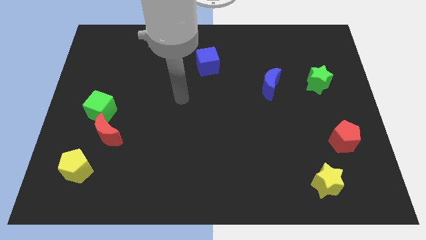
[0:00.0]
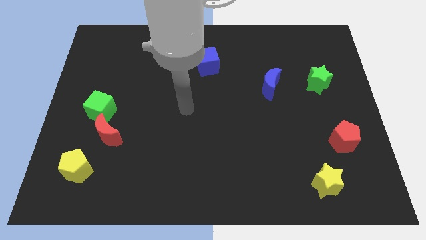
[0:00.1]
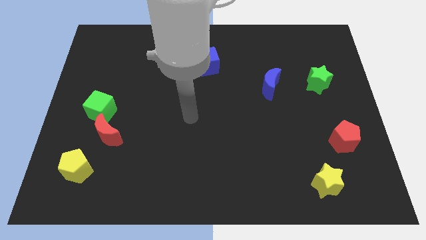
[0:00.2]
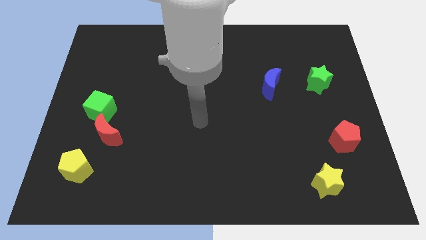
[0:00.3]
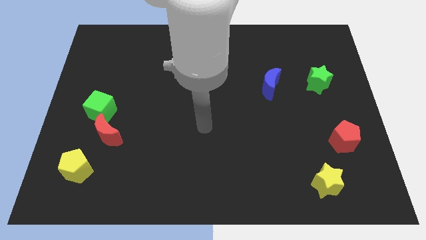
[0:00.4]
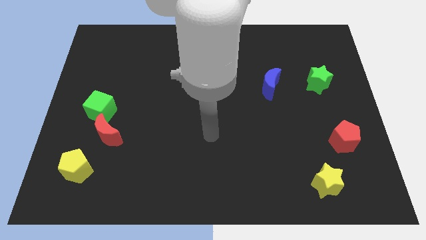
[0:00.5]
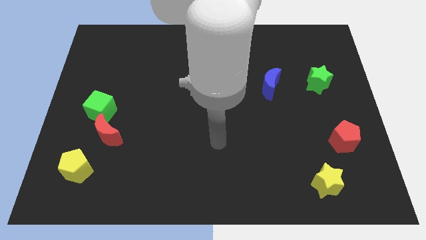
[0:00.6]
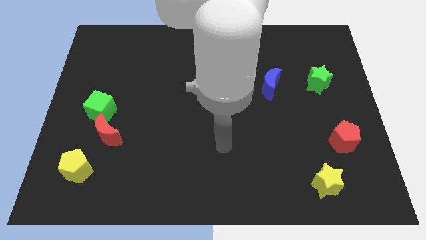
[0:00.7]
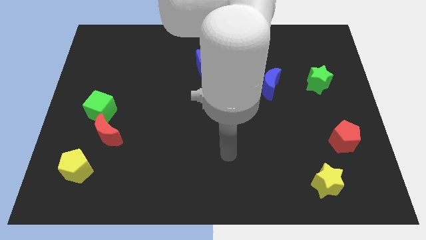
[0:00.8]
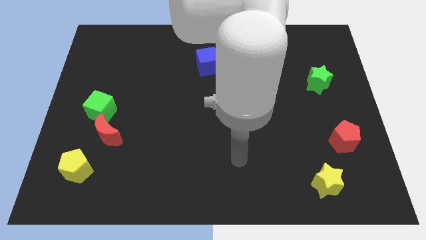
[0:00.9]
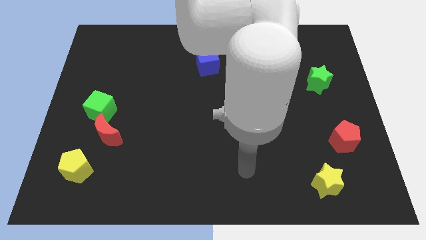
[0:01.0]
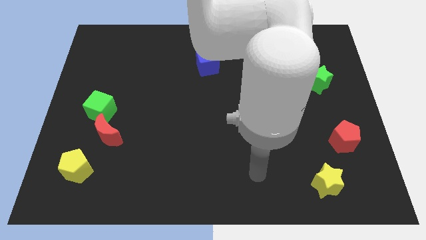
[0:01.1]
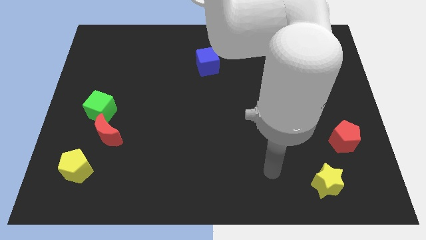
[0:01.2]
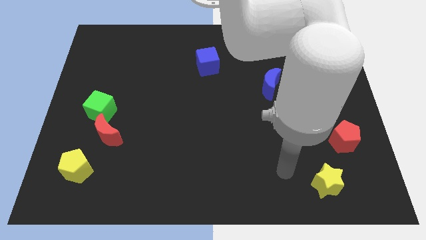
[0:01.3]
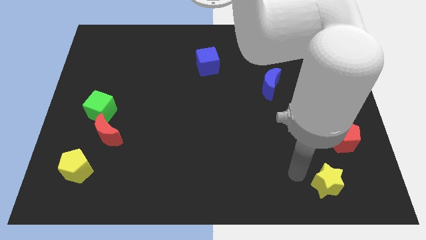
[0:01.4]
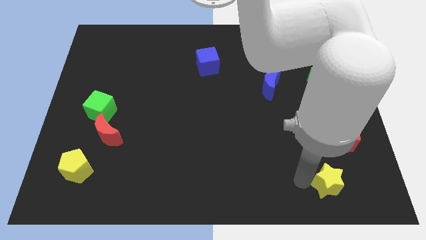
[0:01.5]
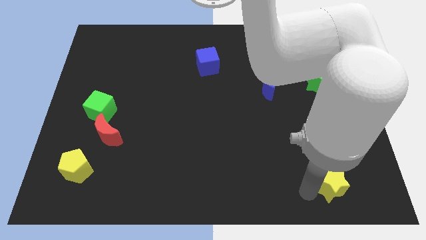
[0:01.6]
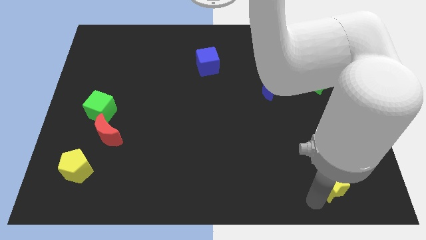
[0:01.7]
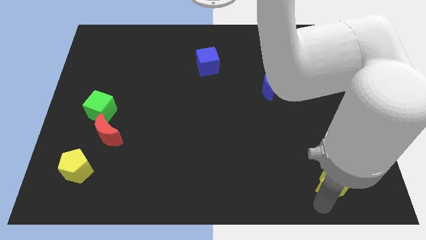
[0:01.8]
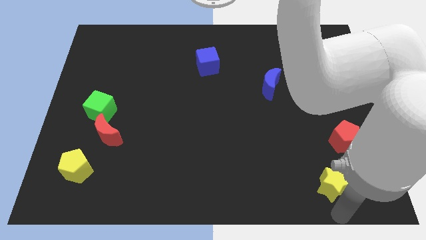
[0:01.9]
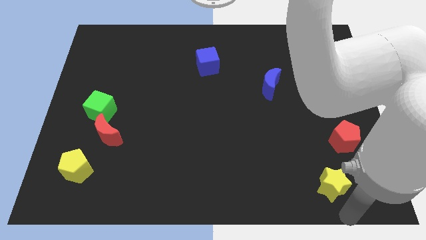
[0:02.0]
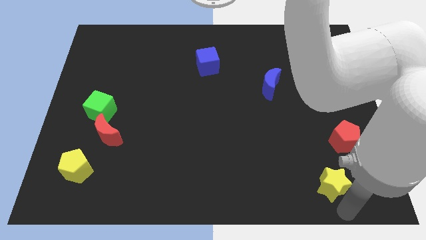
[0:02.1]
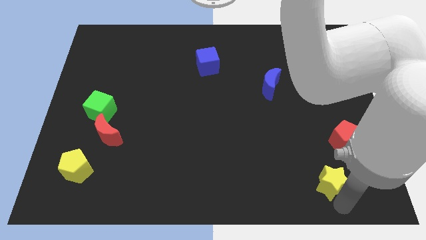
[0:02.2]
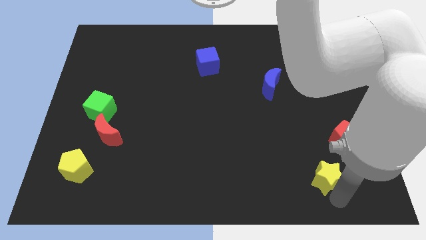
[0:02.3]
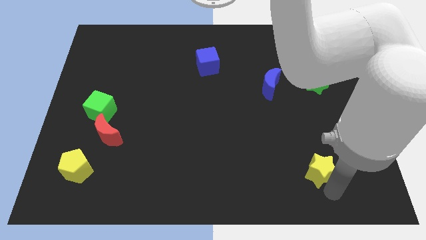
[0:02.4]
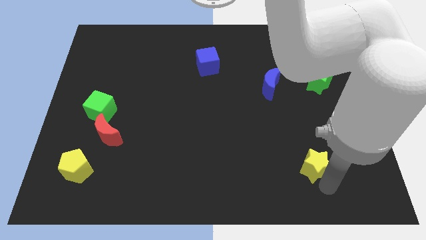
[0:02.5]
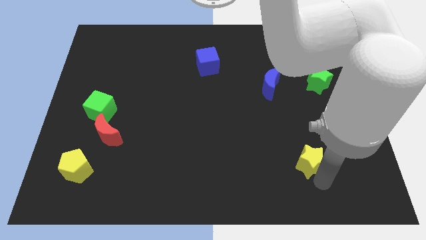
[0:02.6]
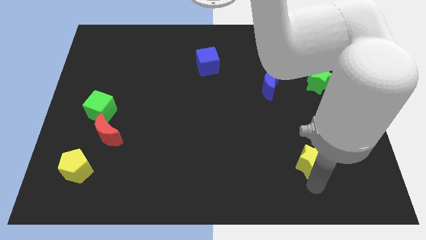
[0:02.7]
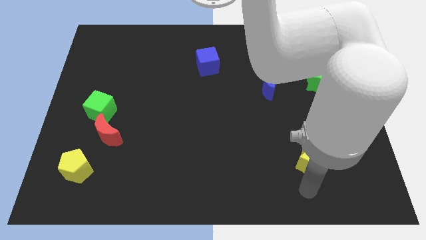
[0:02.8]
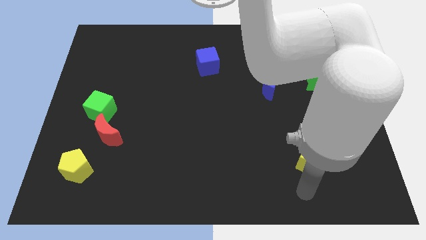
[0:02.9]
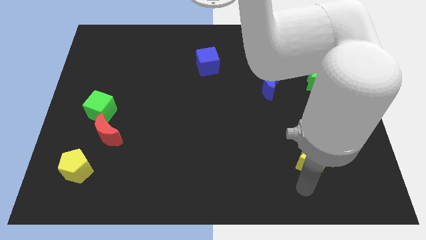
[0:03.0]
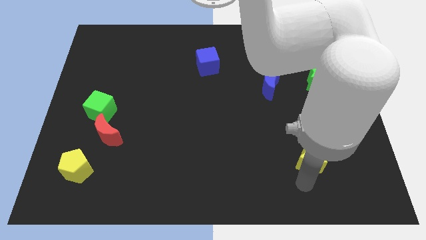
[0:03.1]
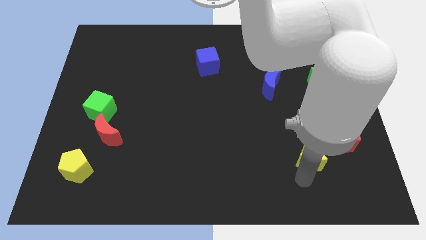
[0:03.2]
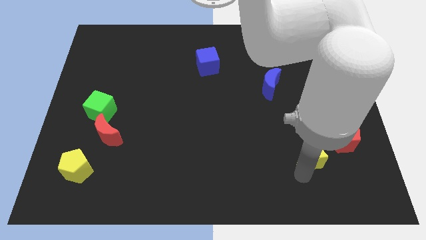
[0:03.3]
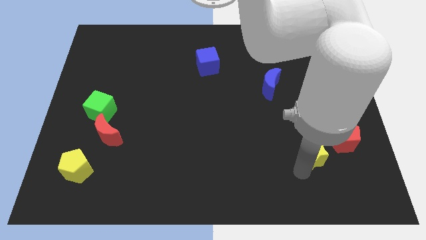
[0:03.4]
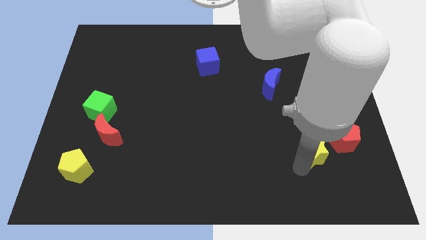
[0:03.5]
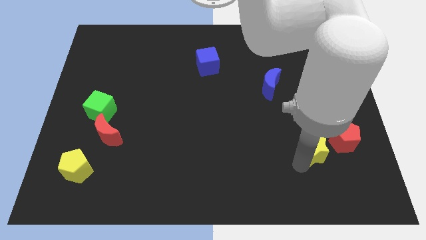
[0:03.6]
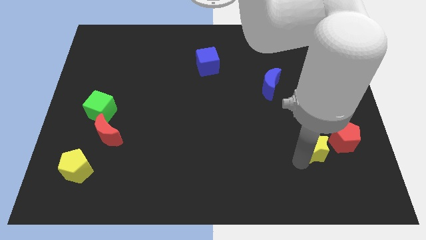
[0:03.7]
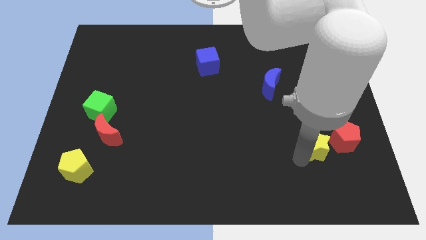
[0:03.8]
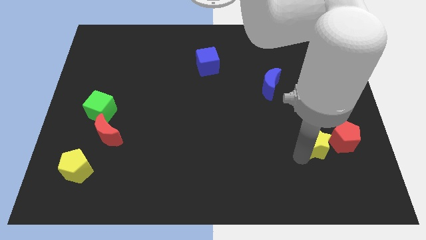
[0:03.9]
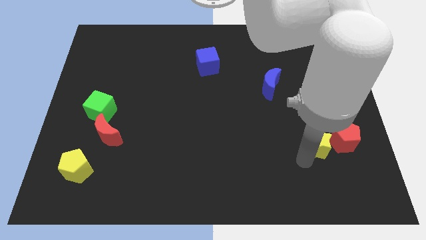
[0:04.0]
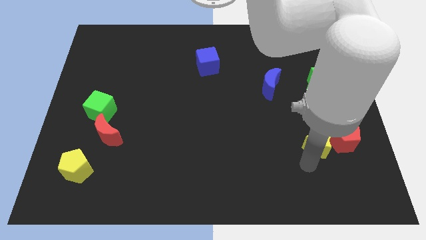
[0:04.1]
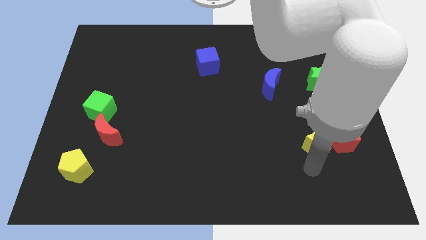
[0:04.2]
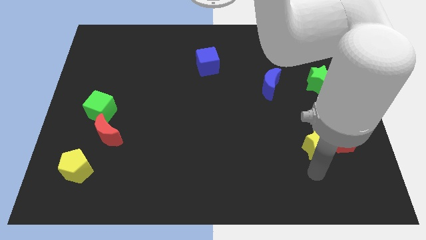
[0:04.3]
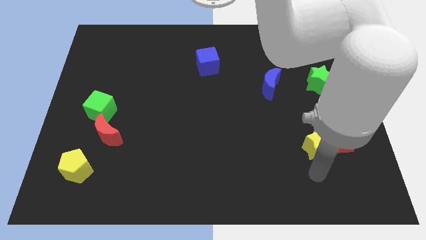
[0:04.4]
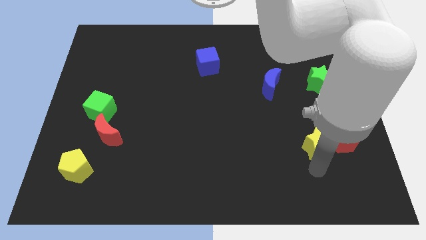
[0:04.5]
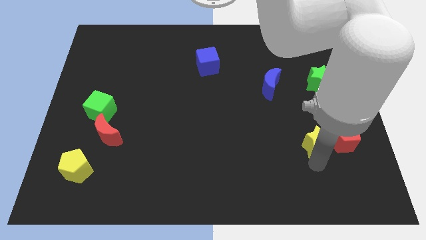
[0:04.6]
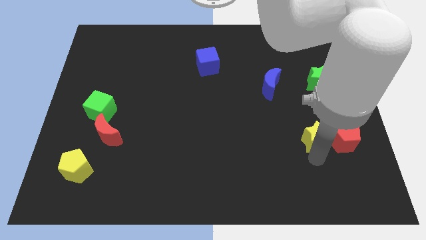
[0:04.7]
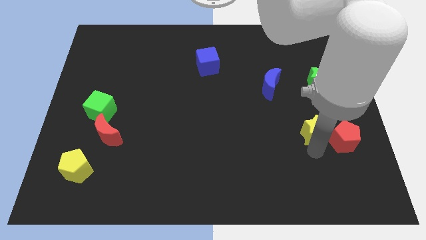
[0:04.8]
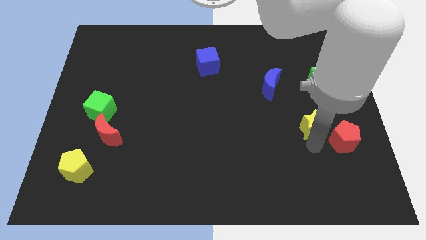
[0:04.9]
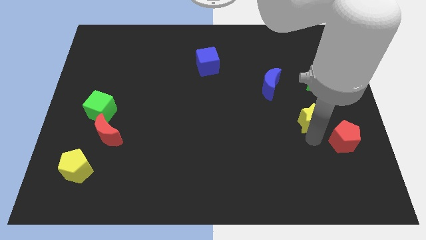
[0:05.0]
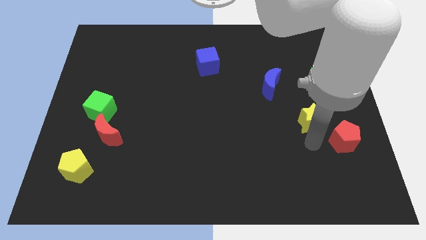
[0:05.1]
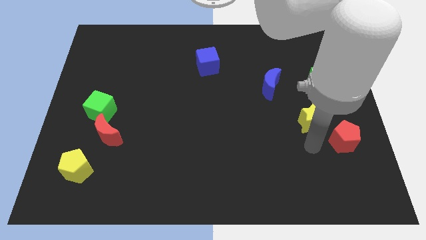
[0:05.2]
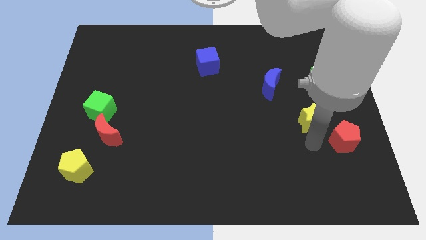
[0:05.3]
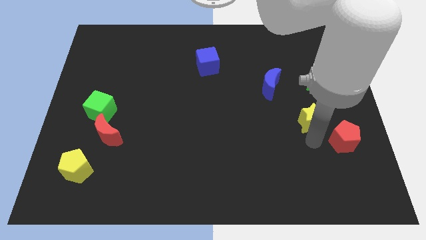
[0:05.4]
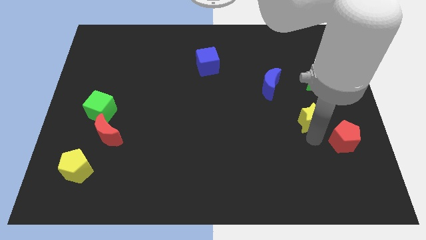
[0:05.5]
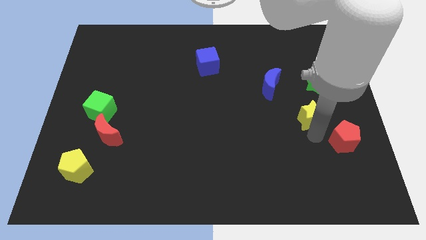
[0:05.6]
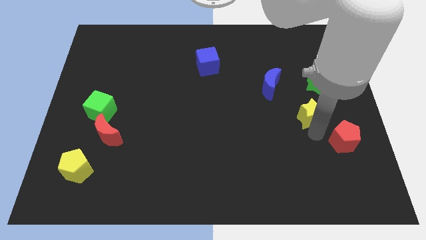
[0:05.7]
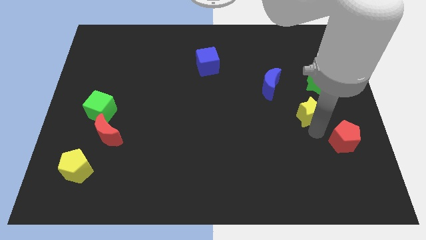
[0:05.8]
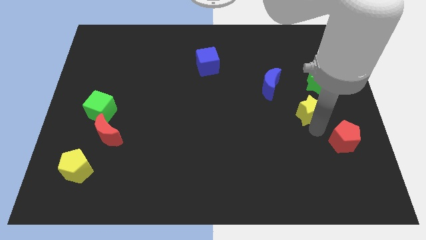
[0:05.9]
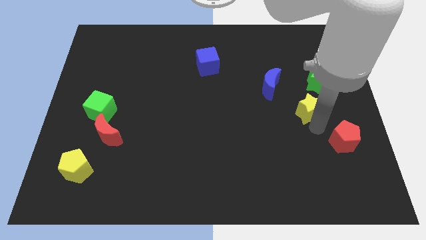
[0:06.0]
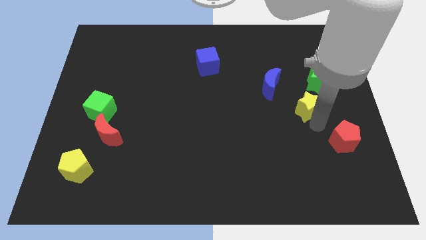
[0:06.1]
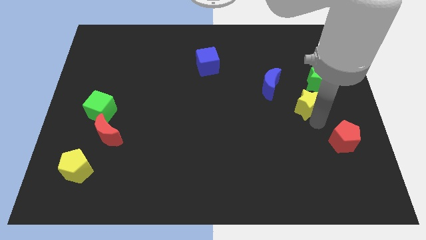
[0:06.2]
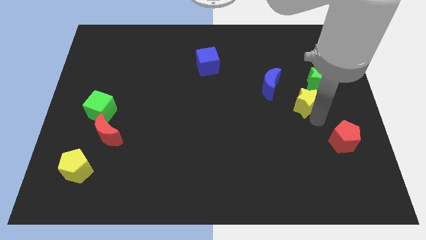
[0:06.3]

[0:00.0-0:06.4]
slide the yellow star upwards

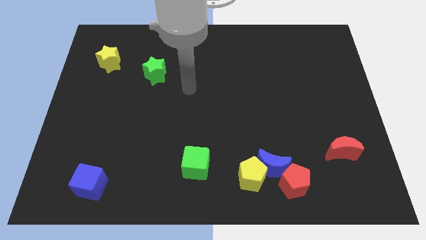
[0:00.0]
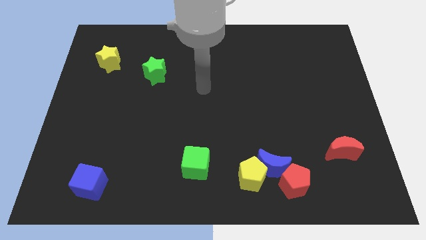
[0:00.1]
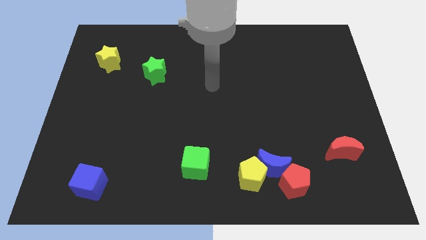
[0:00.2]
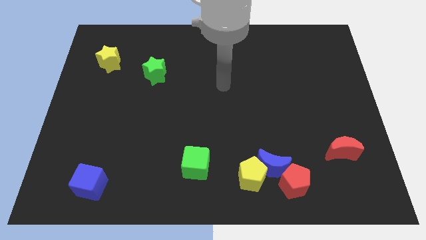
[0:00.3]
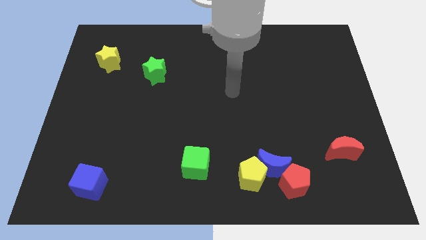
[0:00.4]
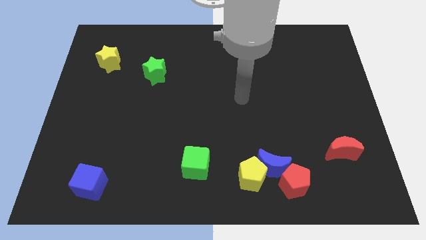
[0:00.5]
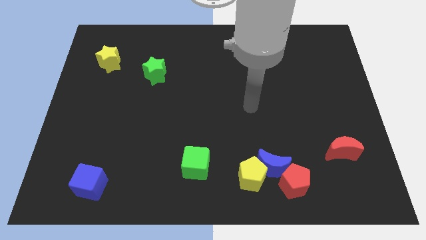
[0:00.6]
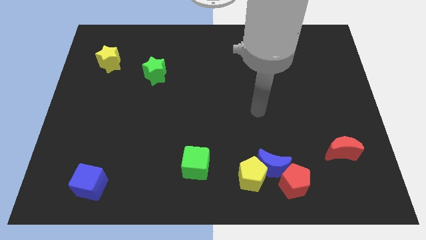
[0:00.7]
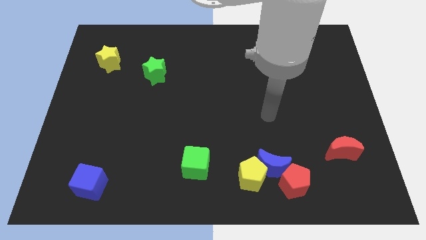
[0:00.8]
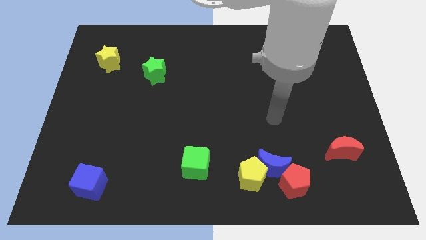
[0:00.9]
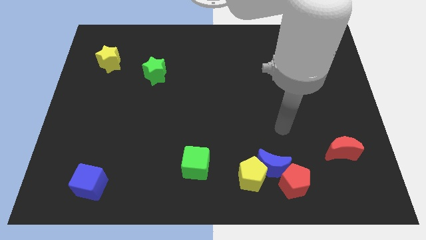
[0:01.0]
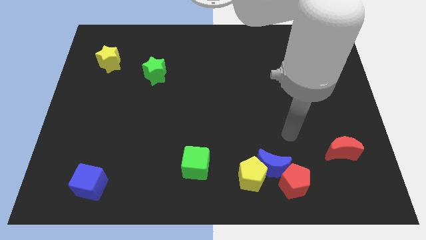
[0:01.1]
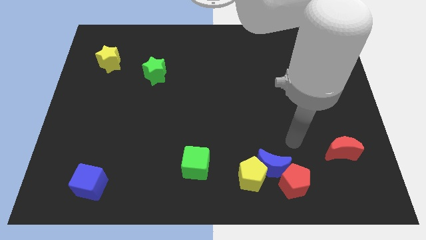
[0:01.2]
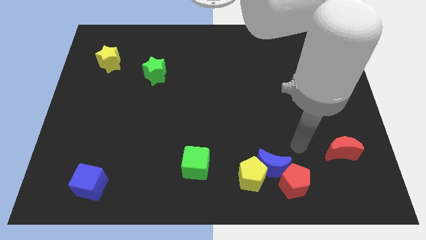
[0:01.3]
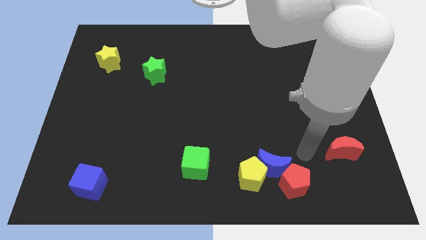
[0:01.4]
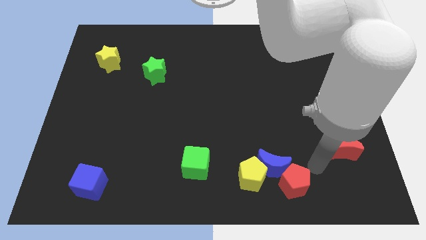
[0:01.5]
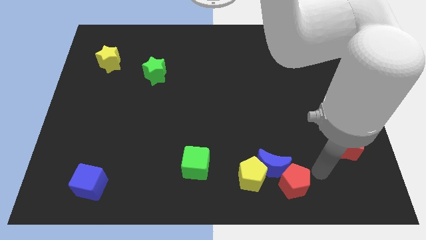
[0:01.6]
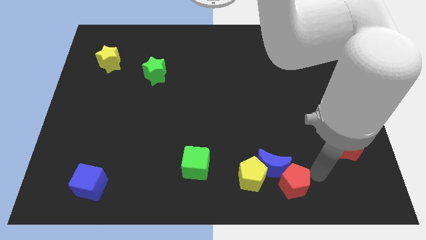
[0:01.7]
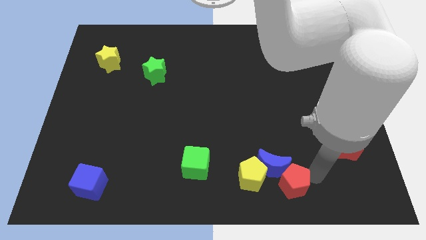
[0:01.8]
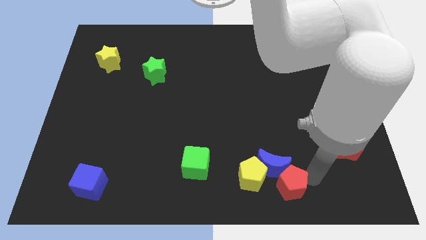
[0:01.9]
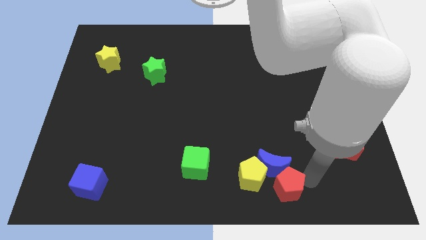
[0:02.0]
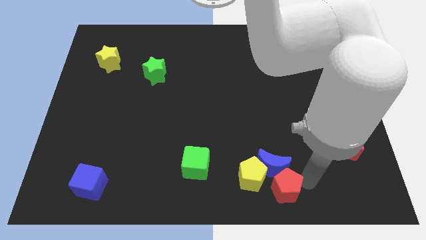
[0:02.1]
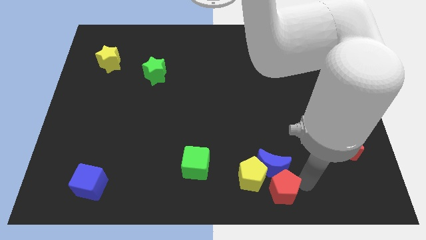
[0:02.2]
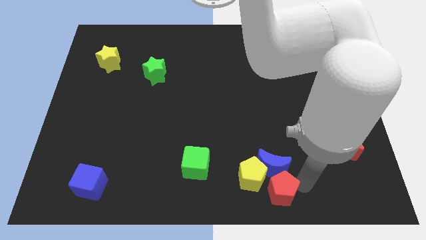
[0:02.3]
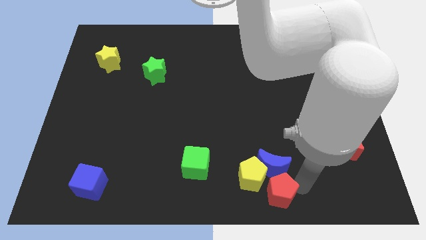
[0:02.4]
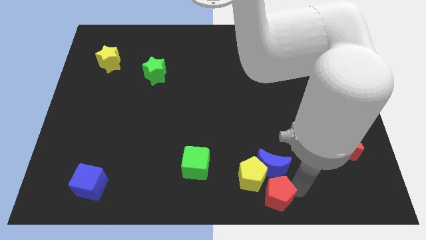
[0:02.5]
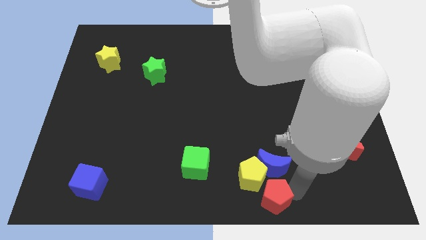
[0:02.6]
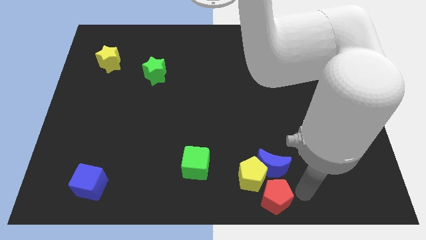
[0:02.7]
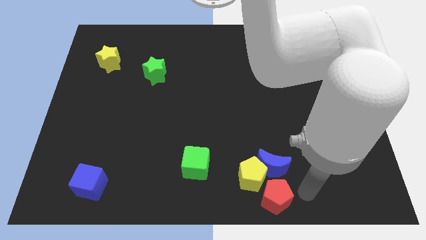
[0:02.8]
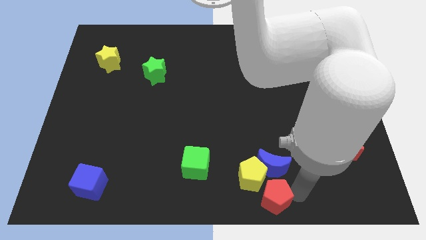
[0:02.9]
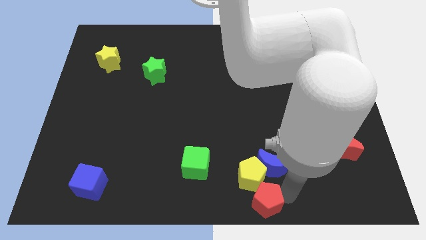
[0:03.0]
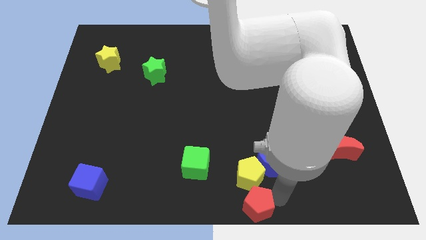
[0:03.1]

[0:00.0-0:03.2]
slightly slide the red pentagon to the left
